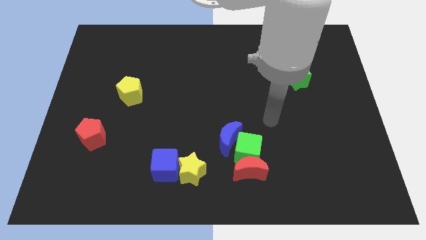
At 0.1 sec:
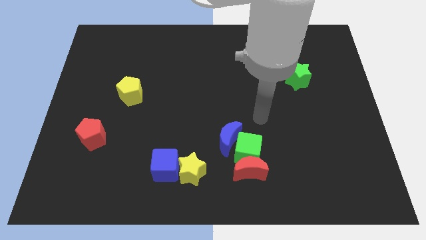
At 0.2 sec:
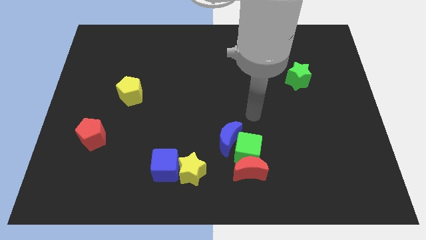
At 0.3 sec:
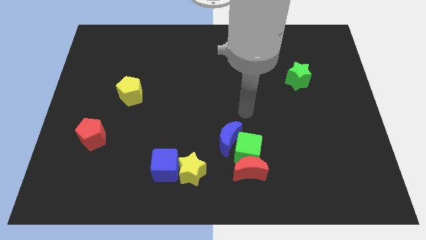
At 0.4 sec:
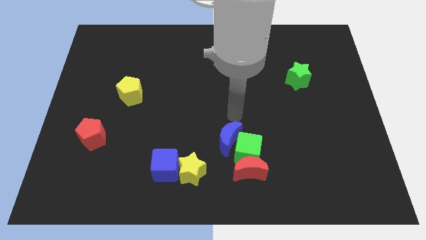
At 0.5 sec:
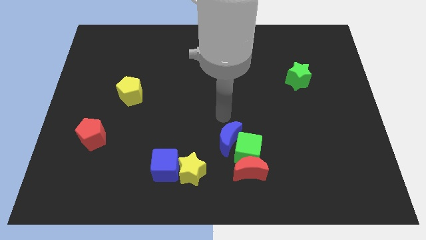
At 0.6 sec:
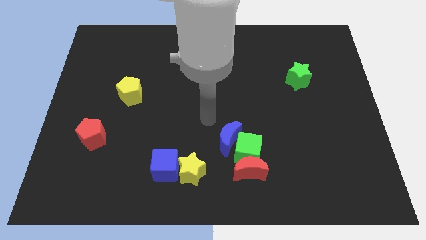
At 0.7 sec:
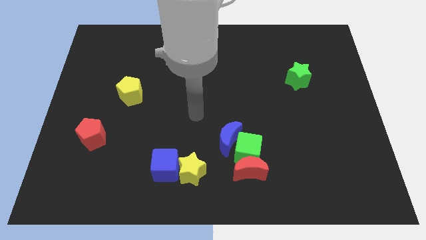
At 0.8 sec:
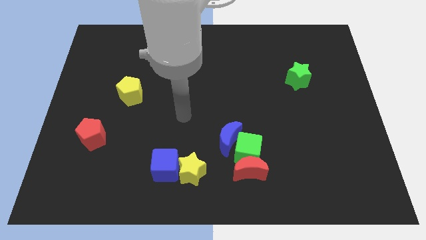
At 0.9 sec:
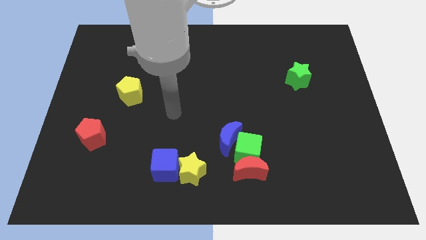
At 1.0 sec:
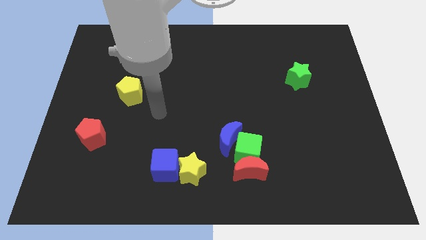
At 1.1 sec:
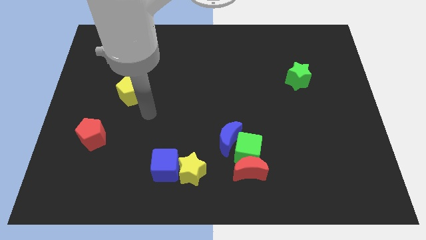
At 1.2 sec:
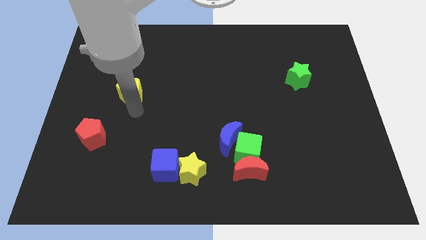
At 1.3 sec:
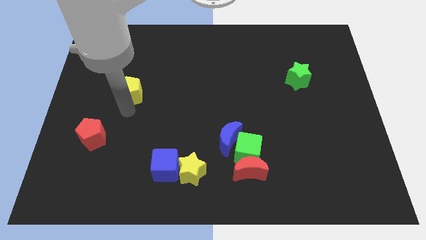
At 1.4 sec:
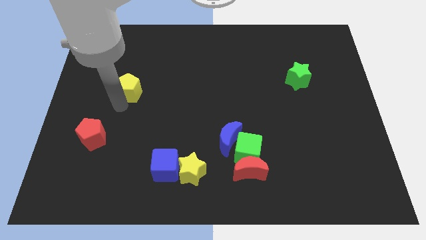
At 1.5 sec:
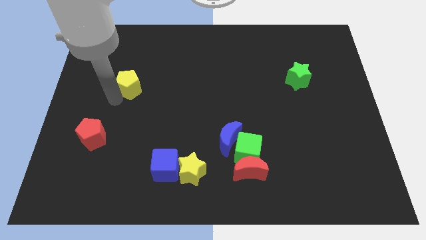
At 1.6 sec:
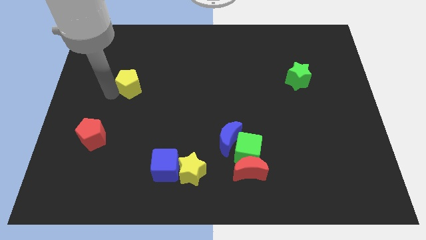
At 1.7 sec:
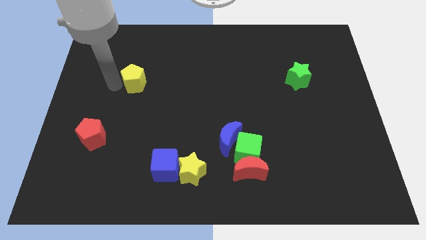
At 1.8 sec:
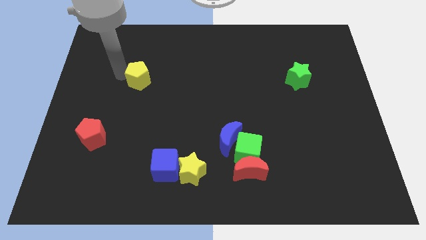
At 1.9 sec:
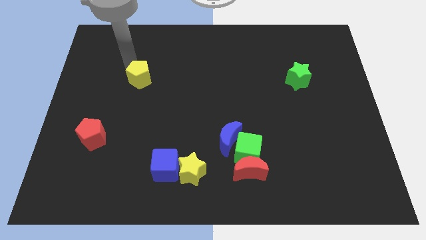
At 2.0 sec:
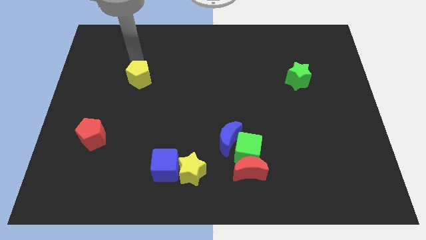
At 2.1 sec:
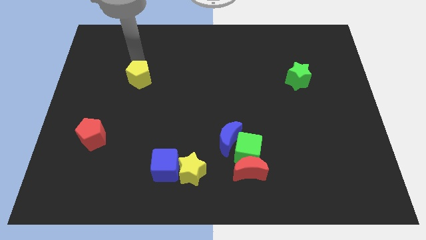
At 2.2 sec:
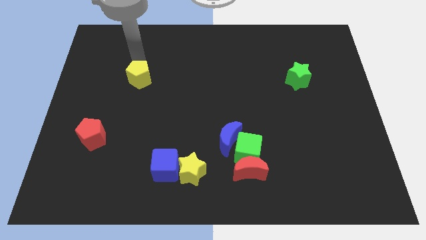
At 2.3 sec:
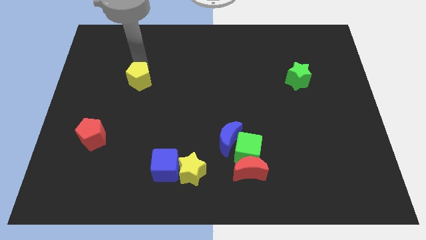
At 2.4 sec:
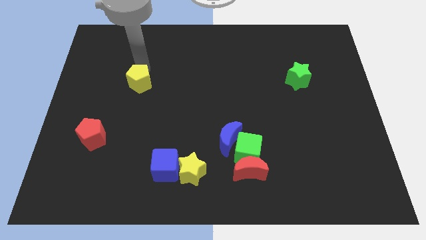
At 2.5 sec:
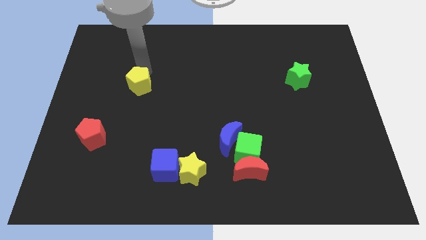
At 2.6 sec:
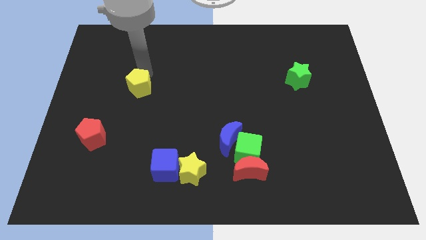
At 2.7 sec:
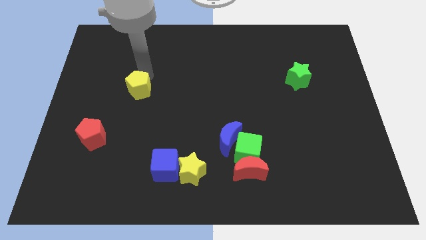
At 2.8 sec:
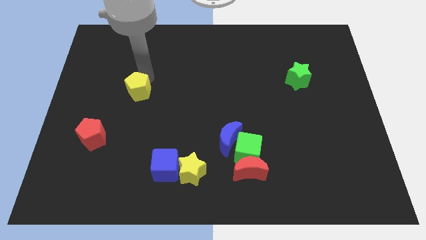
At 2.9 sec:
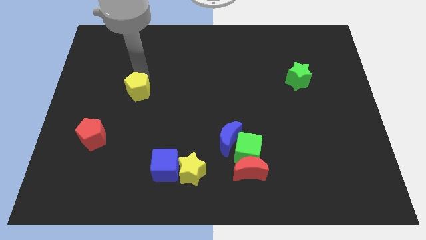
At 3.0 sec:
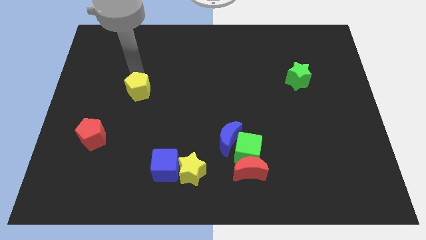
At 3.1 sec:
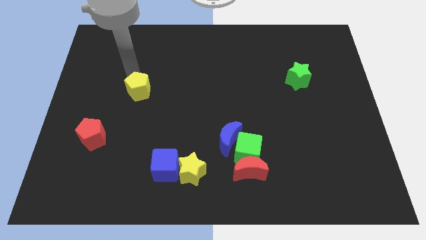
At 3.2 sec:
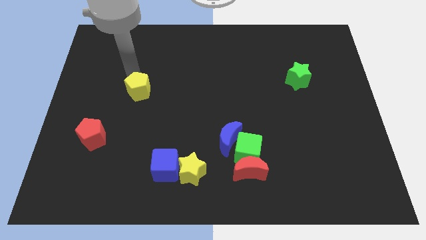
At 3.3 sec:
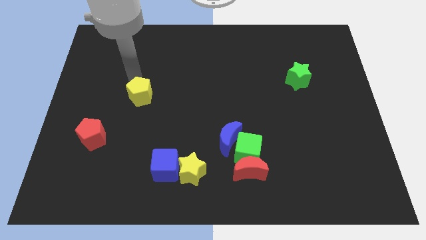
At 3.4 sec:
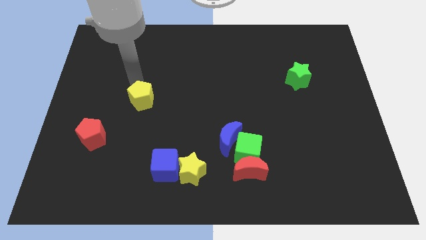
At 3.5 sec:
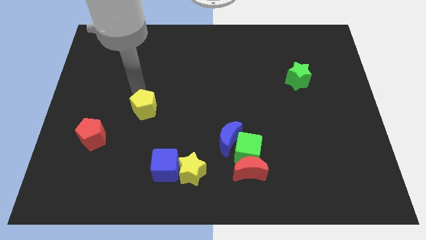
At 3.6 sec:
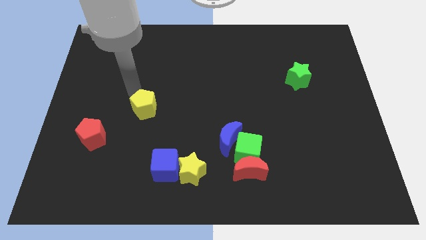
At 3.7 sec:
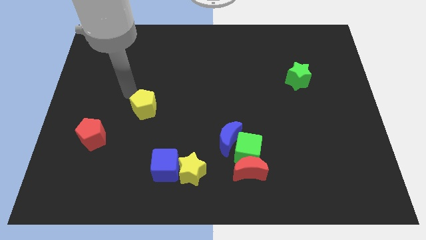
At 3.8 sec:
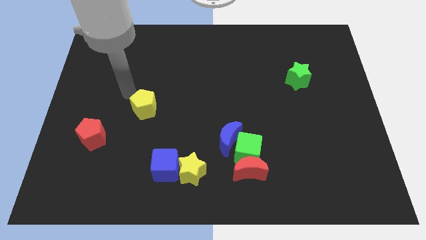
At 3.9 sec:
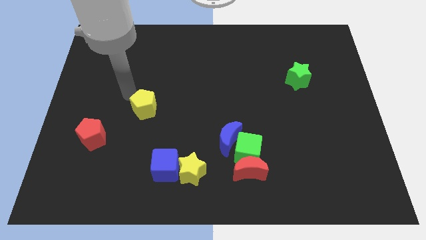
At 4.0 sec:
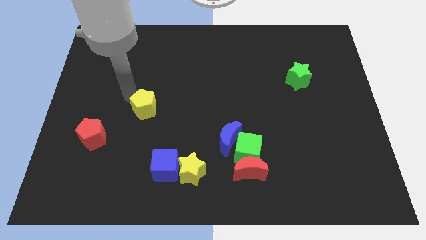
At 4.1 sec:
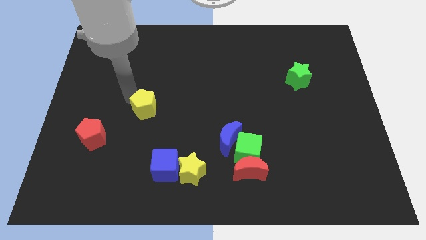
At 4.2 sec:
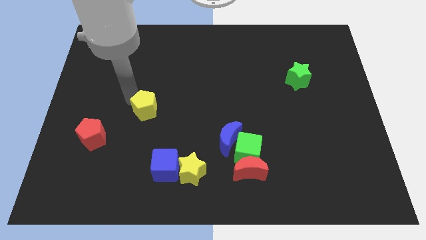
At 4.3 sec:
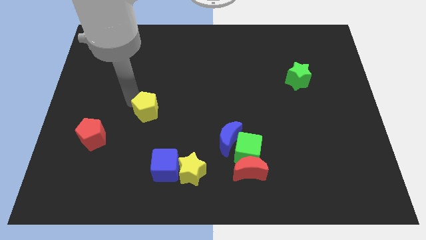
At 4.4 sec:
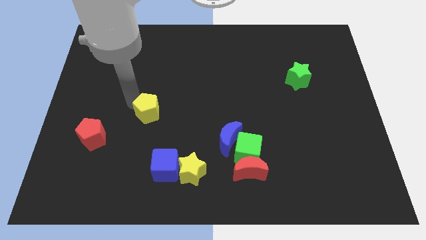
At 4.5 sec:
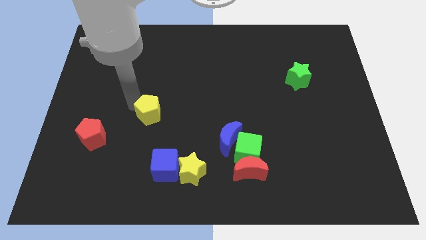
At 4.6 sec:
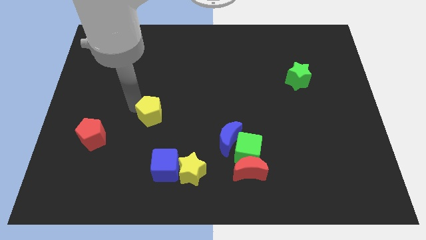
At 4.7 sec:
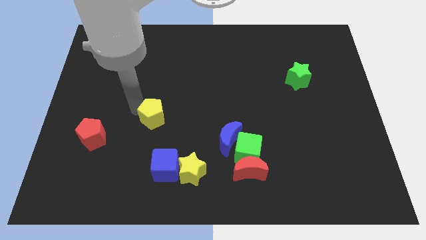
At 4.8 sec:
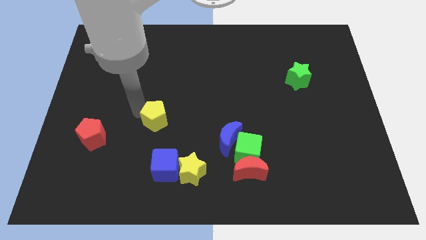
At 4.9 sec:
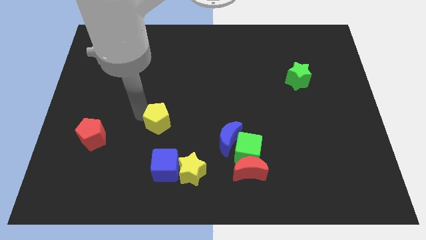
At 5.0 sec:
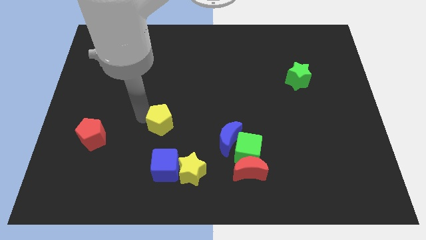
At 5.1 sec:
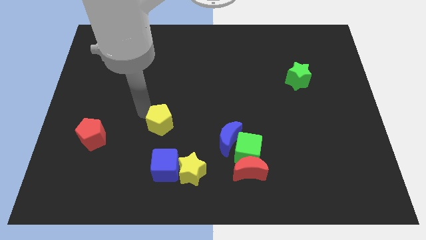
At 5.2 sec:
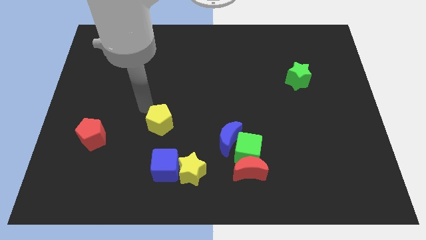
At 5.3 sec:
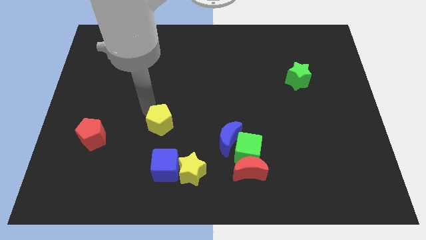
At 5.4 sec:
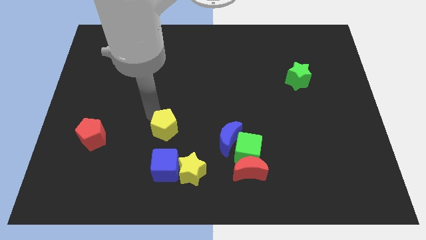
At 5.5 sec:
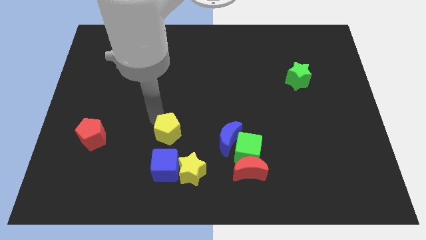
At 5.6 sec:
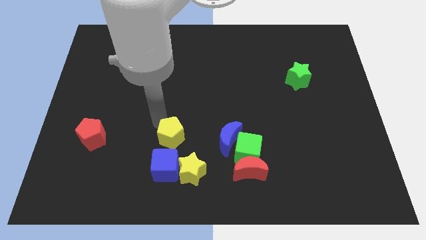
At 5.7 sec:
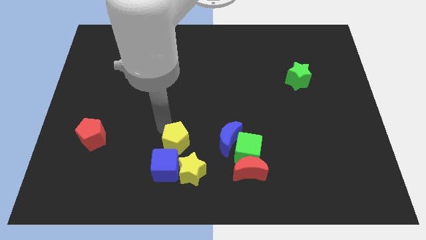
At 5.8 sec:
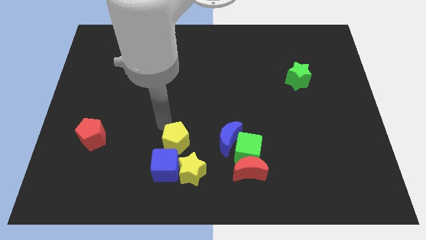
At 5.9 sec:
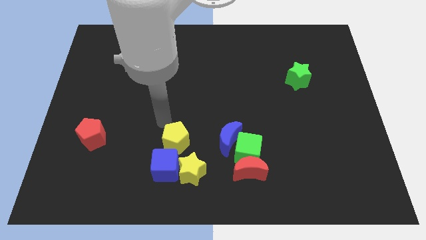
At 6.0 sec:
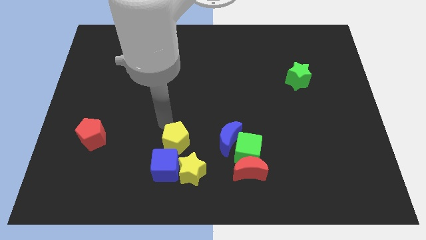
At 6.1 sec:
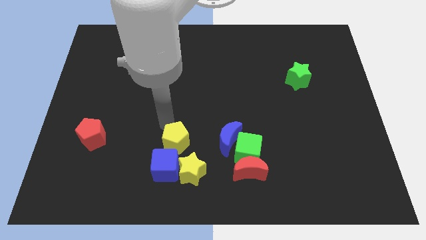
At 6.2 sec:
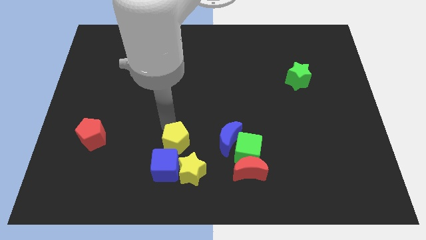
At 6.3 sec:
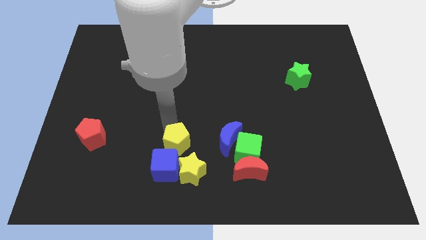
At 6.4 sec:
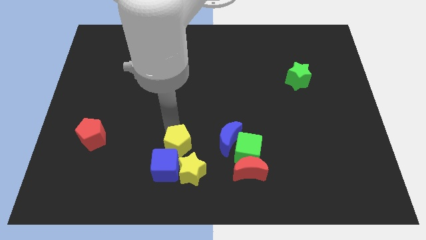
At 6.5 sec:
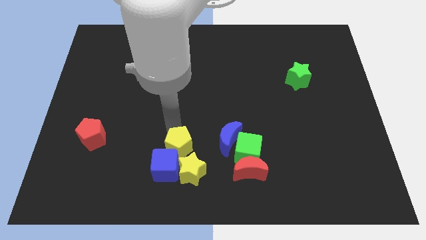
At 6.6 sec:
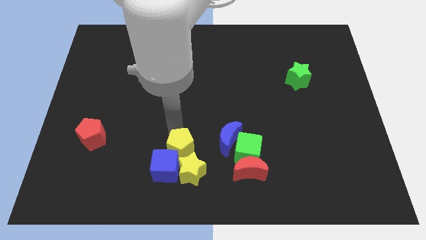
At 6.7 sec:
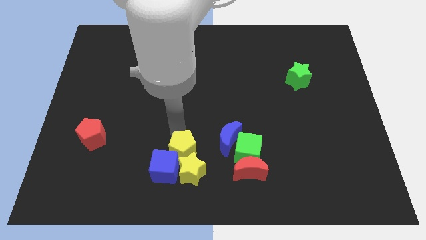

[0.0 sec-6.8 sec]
move the yellow pentagon next to the yellow star

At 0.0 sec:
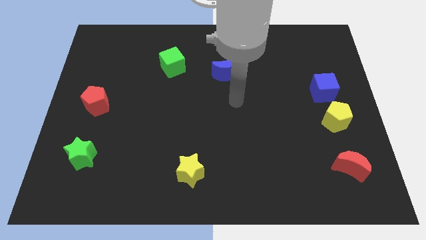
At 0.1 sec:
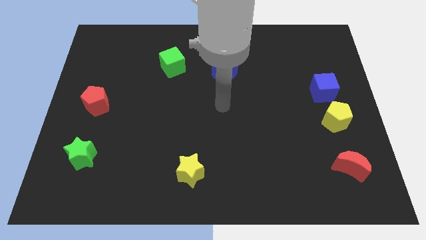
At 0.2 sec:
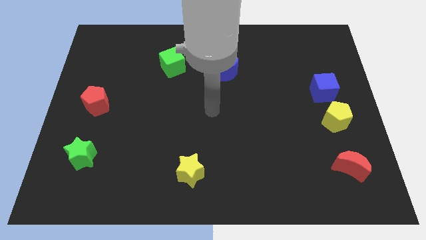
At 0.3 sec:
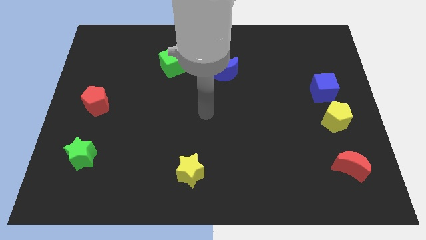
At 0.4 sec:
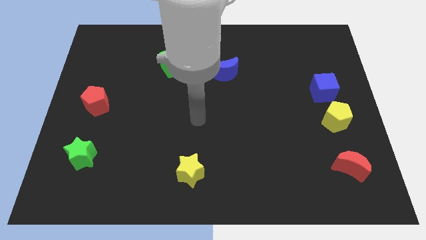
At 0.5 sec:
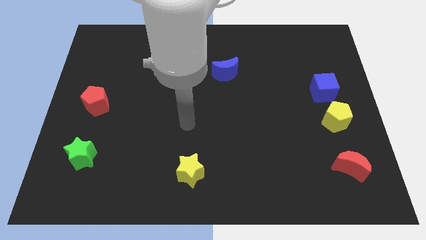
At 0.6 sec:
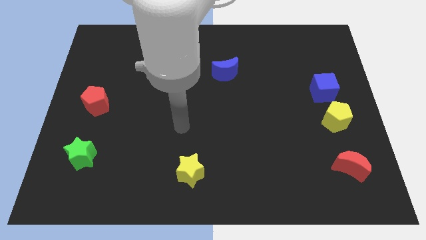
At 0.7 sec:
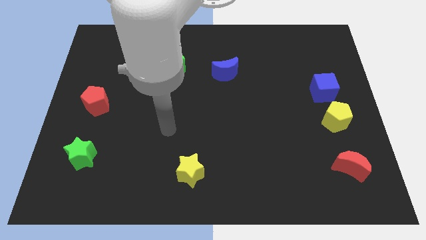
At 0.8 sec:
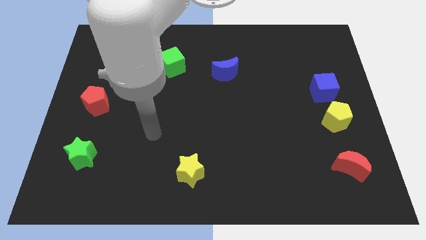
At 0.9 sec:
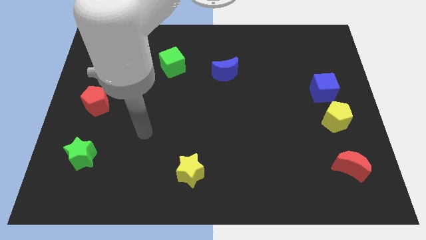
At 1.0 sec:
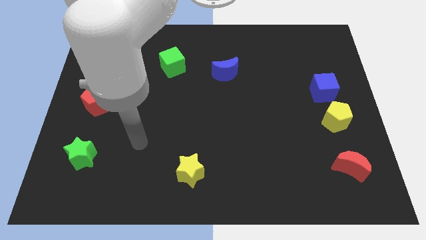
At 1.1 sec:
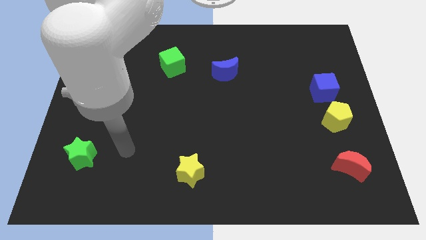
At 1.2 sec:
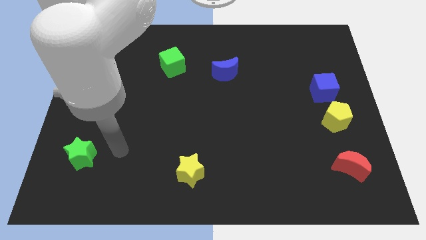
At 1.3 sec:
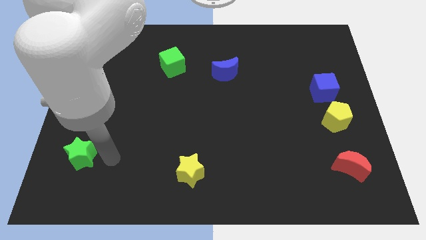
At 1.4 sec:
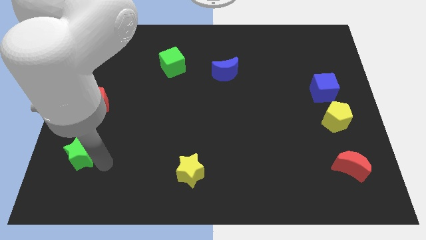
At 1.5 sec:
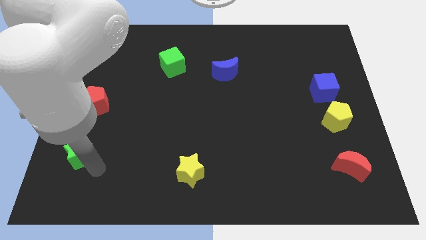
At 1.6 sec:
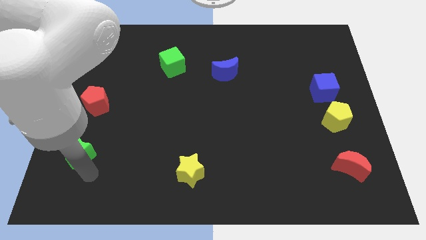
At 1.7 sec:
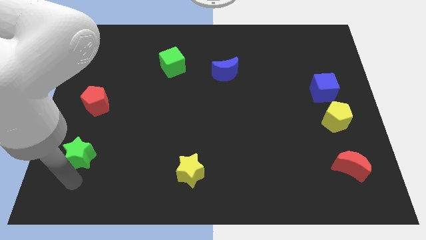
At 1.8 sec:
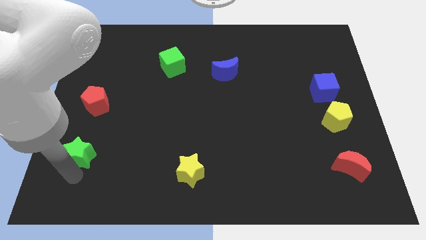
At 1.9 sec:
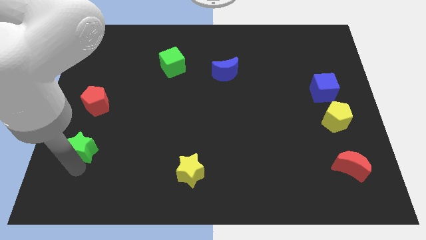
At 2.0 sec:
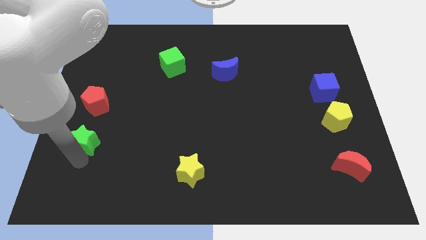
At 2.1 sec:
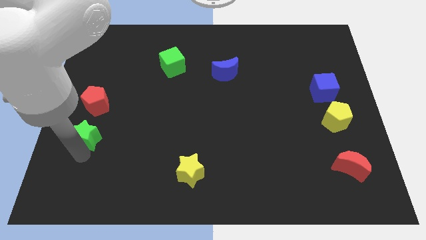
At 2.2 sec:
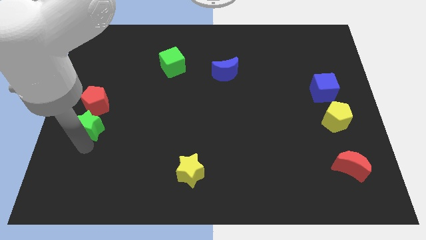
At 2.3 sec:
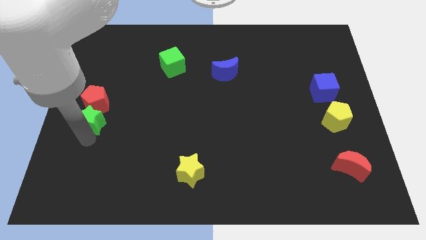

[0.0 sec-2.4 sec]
put the green star to the red pentagon
